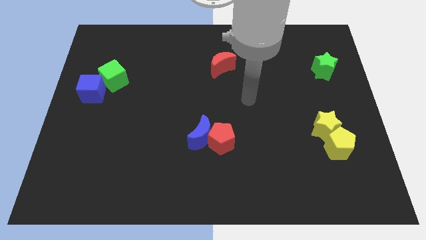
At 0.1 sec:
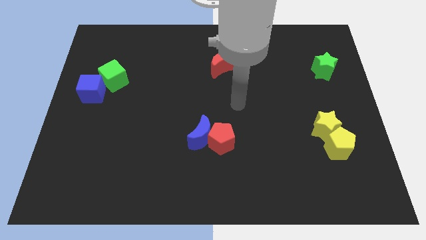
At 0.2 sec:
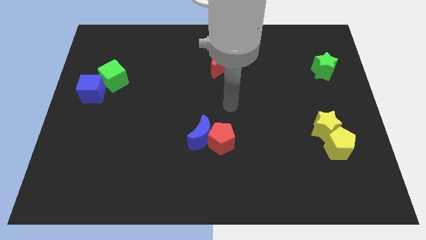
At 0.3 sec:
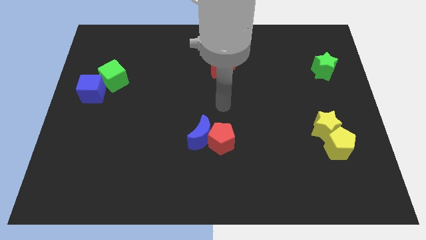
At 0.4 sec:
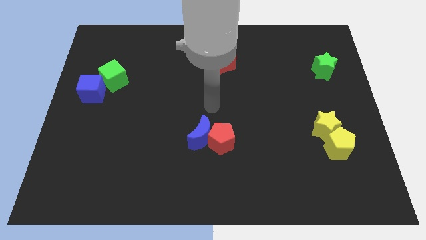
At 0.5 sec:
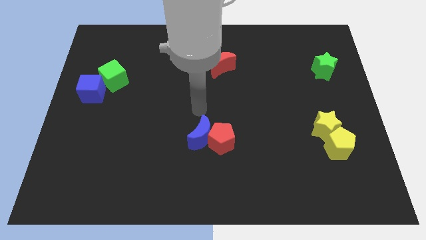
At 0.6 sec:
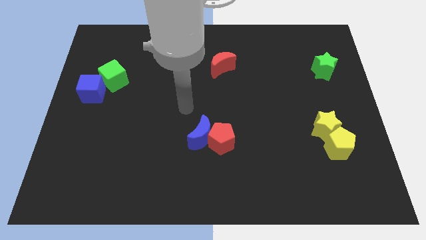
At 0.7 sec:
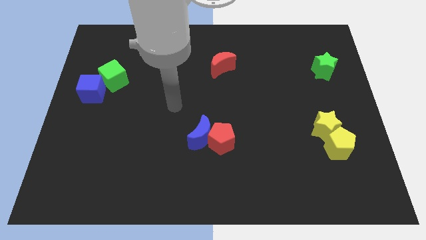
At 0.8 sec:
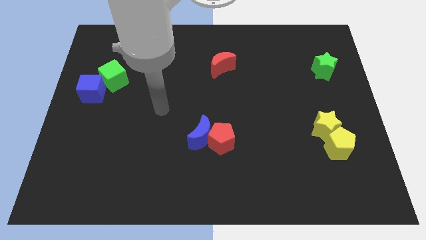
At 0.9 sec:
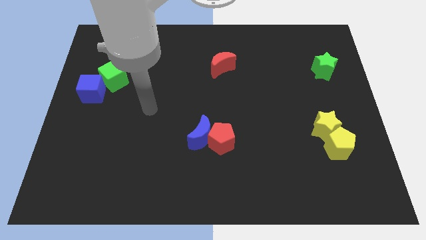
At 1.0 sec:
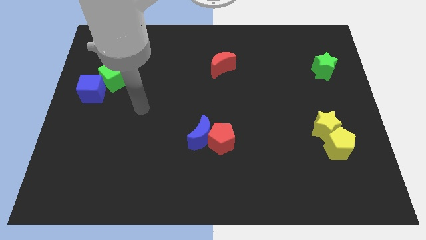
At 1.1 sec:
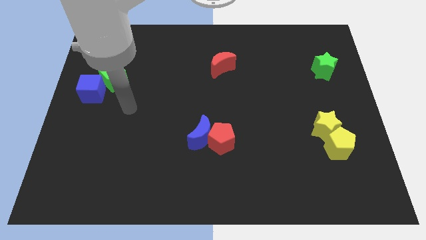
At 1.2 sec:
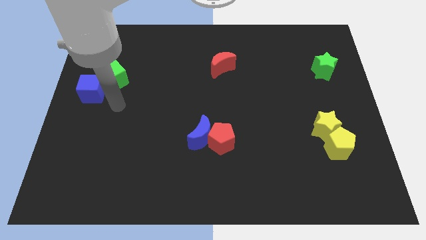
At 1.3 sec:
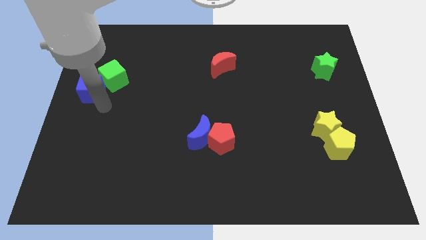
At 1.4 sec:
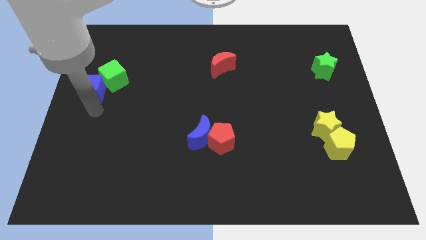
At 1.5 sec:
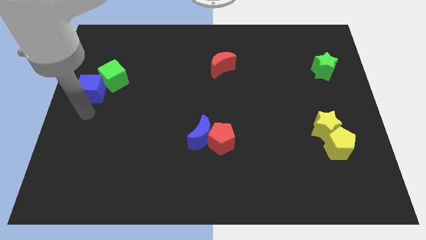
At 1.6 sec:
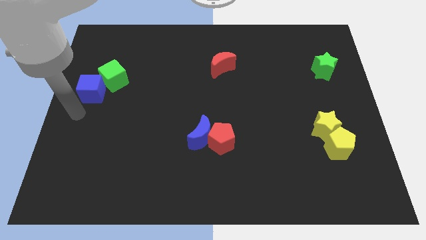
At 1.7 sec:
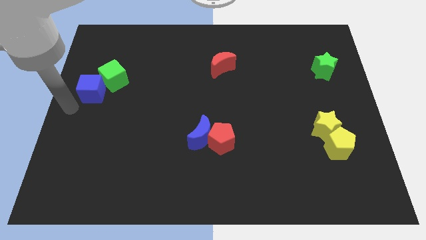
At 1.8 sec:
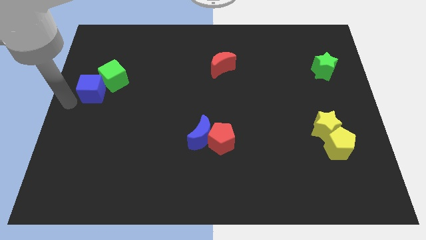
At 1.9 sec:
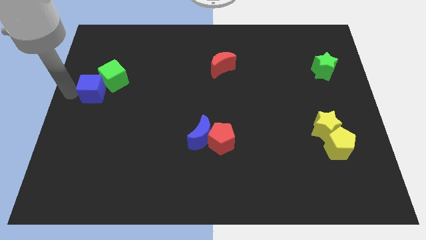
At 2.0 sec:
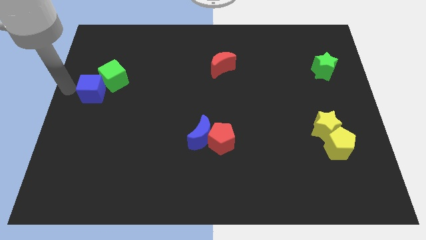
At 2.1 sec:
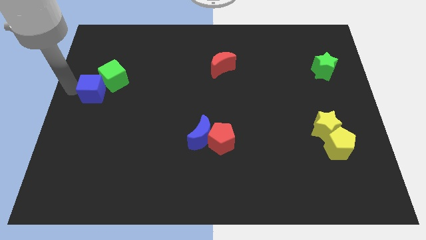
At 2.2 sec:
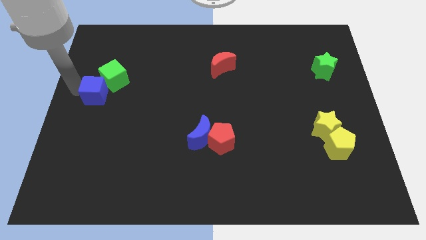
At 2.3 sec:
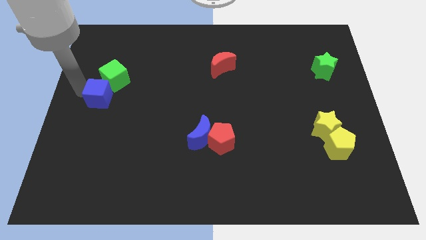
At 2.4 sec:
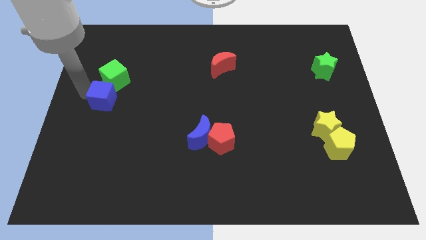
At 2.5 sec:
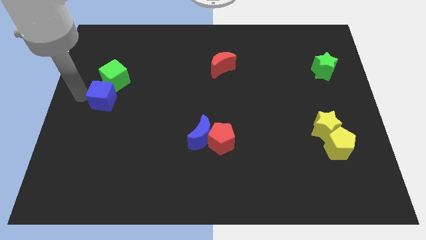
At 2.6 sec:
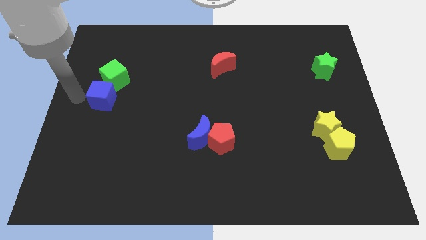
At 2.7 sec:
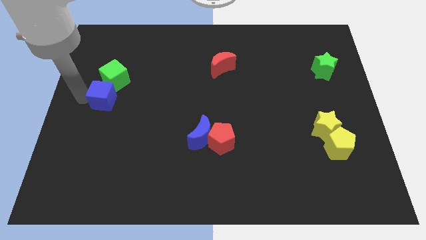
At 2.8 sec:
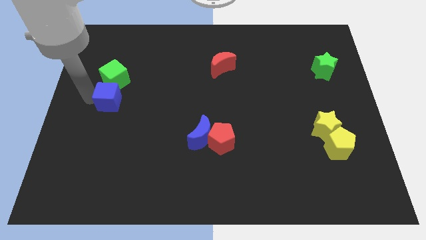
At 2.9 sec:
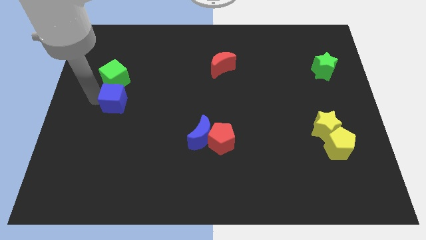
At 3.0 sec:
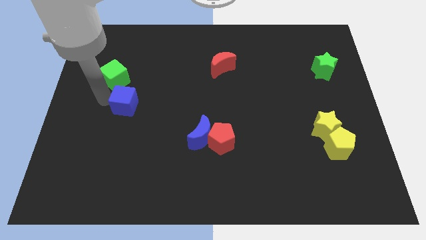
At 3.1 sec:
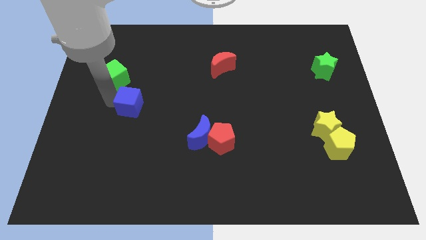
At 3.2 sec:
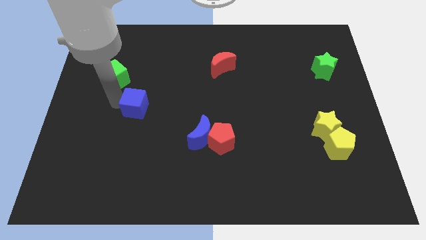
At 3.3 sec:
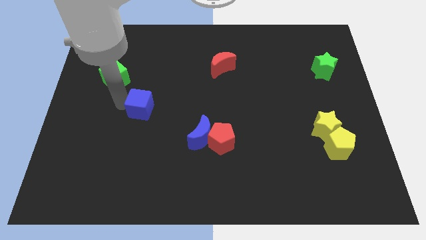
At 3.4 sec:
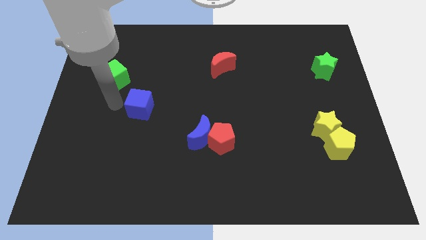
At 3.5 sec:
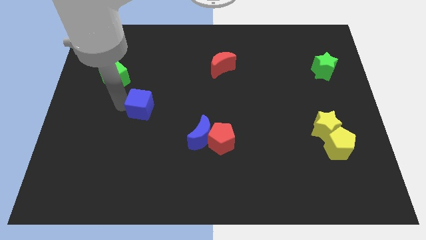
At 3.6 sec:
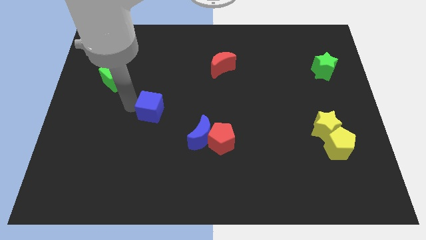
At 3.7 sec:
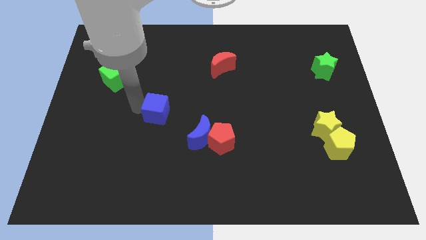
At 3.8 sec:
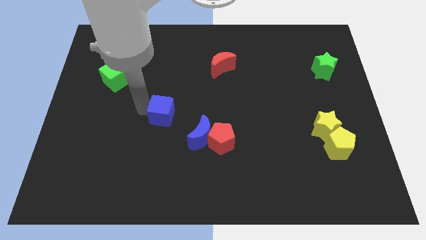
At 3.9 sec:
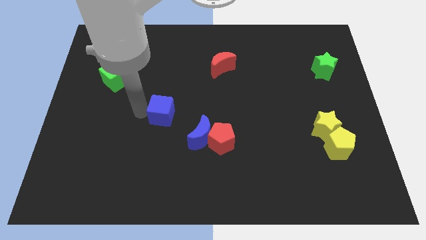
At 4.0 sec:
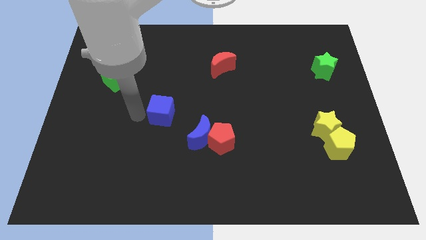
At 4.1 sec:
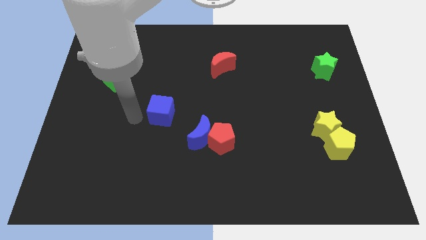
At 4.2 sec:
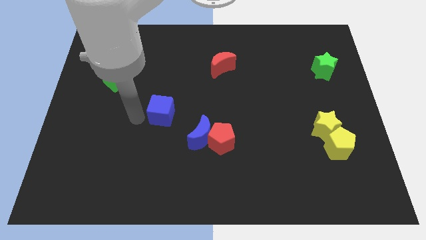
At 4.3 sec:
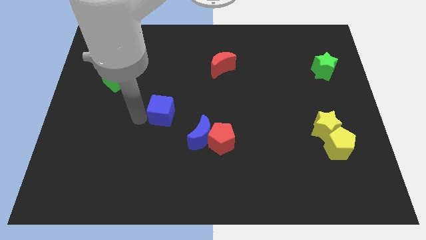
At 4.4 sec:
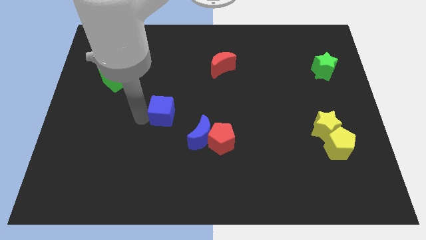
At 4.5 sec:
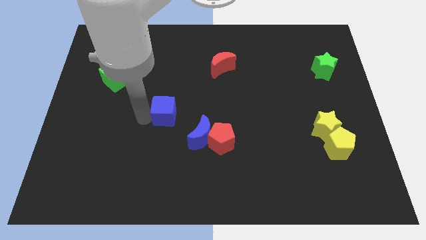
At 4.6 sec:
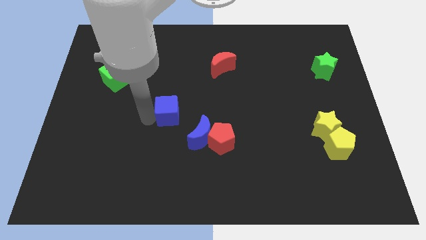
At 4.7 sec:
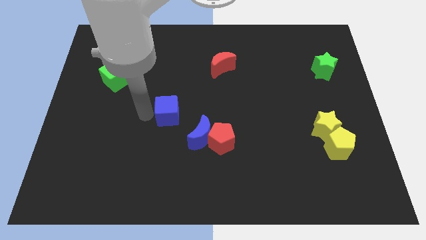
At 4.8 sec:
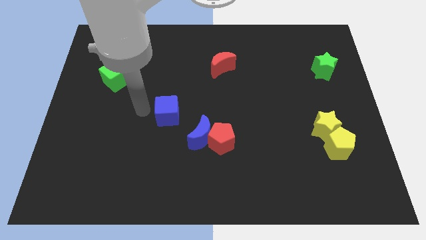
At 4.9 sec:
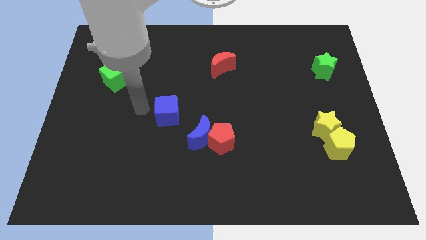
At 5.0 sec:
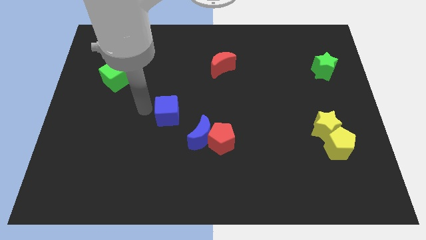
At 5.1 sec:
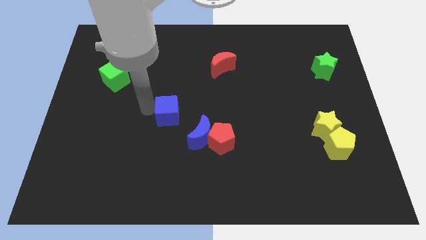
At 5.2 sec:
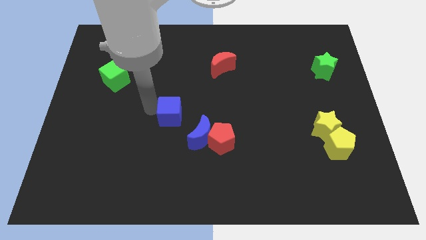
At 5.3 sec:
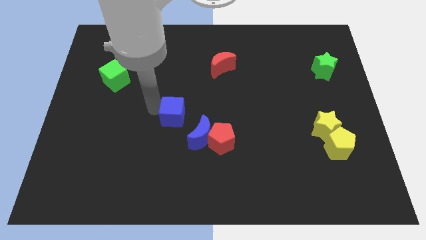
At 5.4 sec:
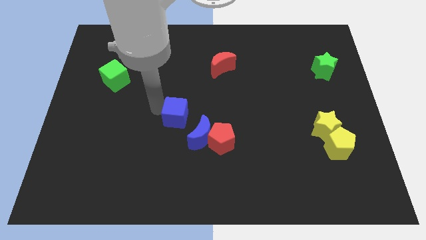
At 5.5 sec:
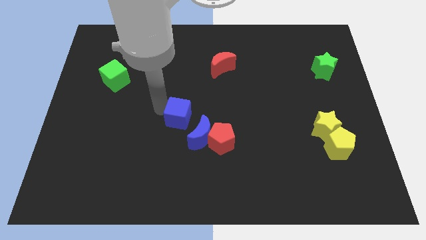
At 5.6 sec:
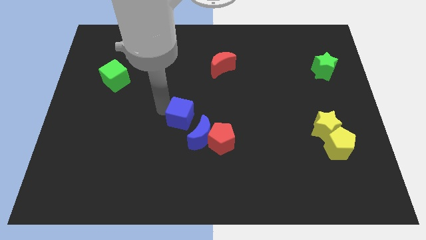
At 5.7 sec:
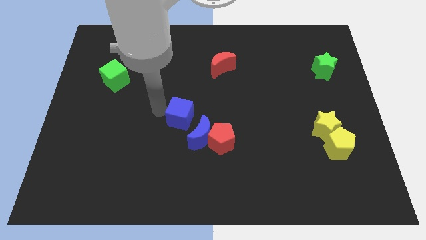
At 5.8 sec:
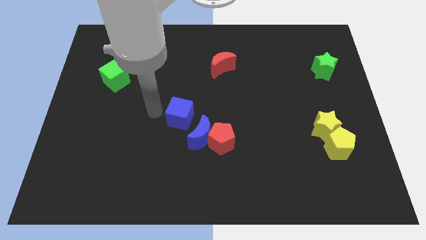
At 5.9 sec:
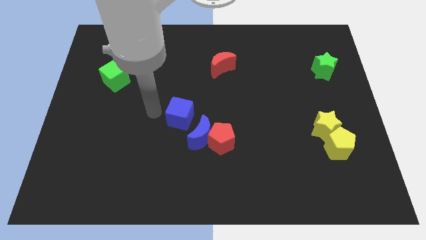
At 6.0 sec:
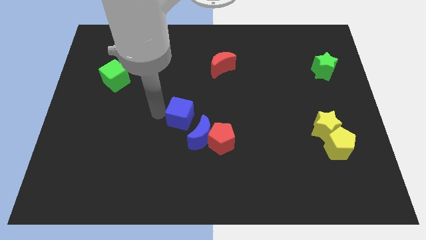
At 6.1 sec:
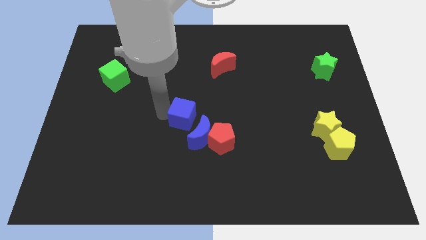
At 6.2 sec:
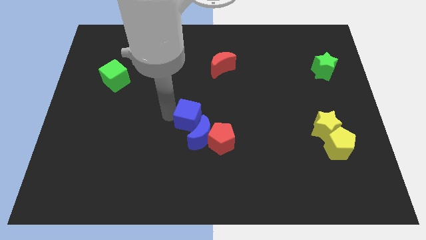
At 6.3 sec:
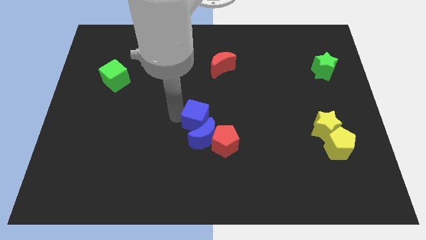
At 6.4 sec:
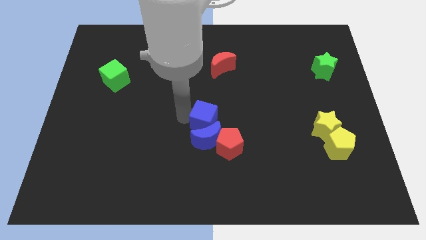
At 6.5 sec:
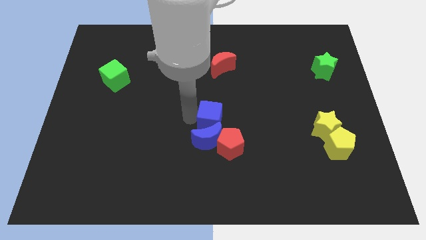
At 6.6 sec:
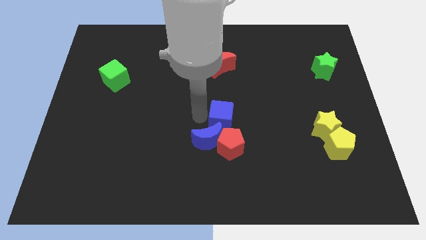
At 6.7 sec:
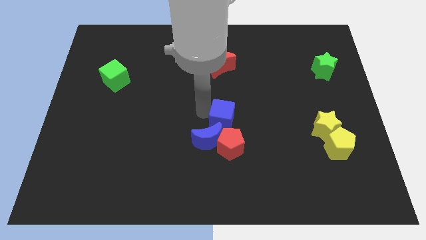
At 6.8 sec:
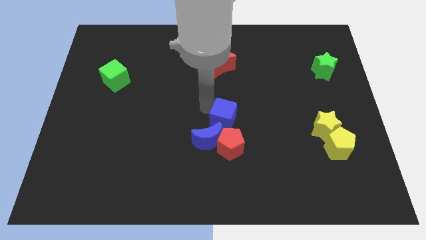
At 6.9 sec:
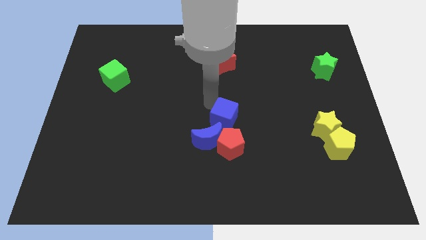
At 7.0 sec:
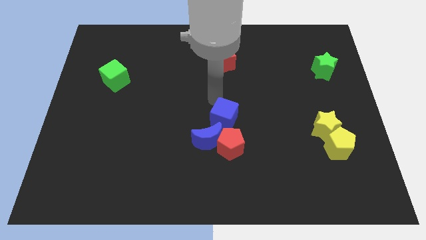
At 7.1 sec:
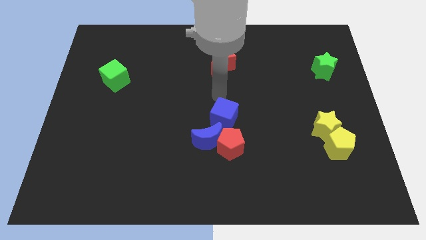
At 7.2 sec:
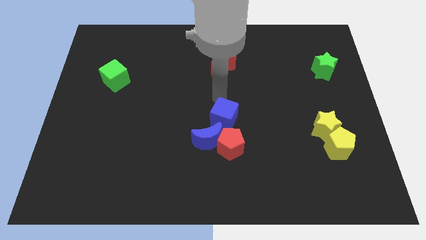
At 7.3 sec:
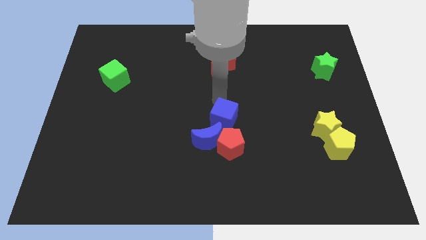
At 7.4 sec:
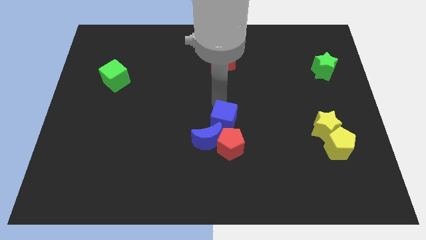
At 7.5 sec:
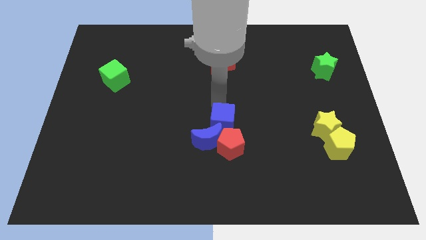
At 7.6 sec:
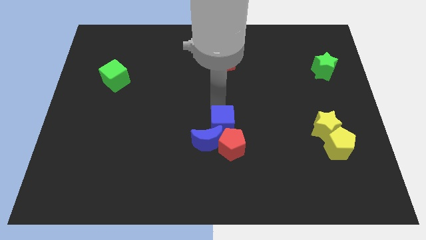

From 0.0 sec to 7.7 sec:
put the blue cube close to the red pentagon
